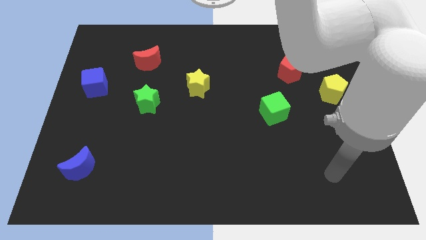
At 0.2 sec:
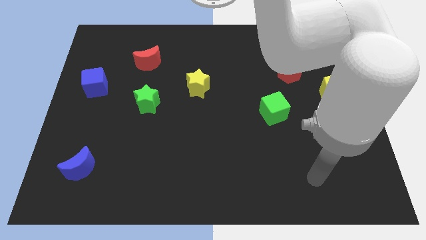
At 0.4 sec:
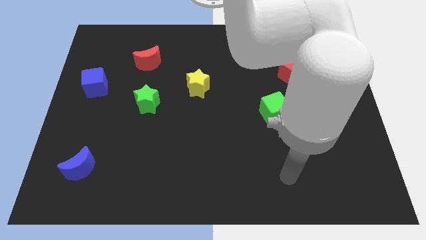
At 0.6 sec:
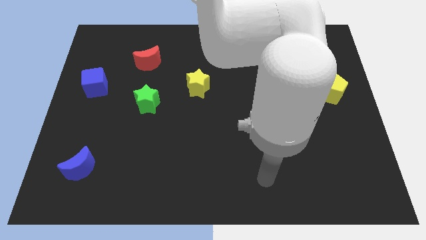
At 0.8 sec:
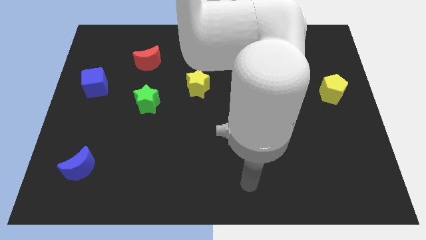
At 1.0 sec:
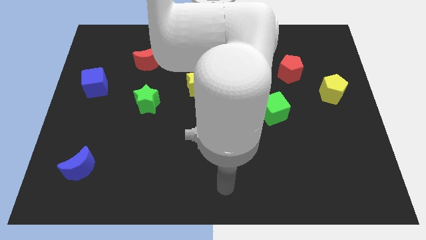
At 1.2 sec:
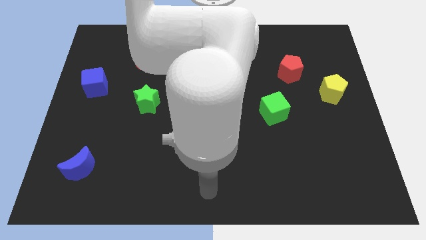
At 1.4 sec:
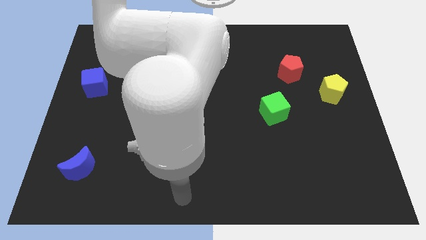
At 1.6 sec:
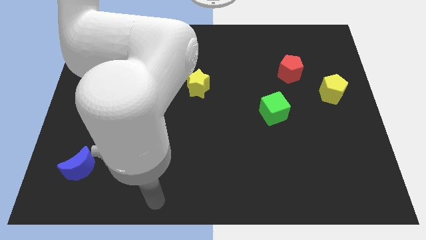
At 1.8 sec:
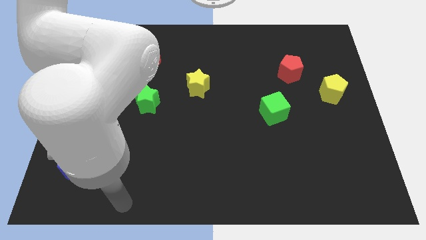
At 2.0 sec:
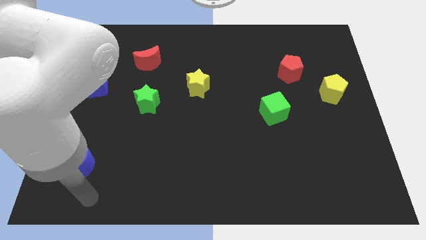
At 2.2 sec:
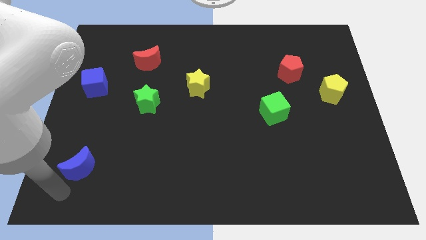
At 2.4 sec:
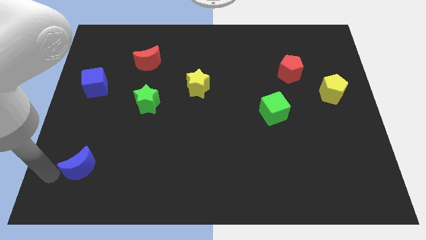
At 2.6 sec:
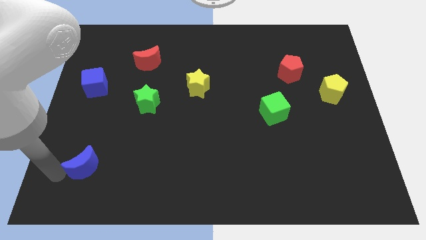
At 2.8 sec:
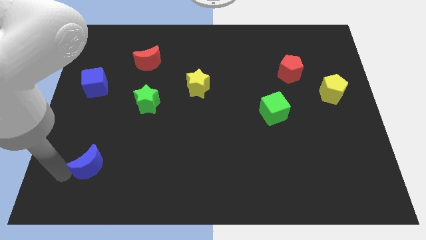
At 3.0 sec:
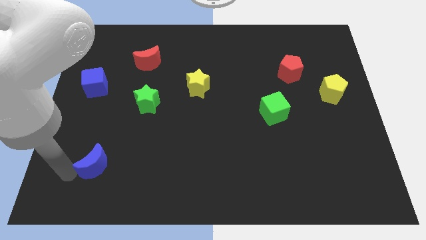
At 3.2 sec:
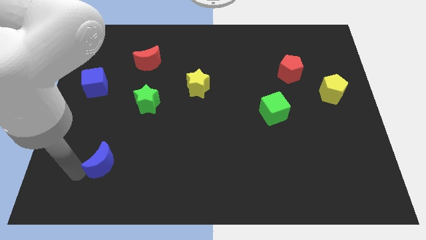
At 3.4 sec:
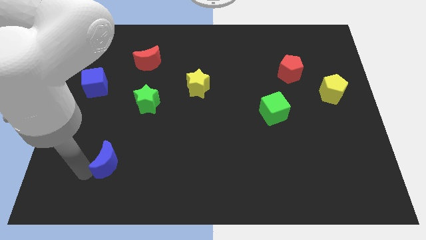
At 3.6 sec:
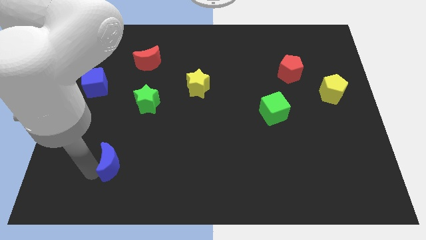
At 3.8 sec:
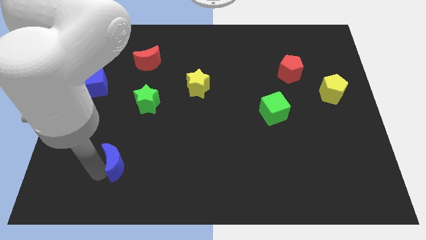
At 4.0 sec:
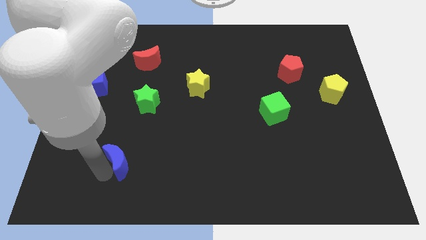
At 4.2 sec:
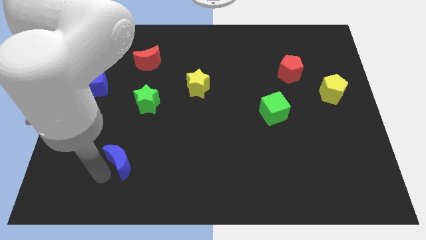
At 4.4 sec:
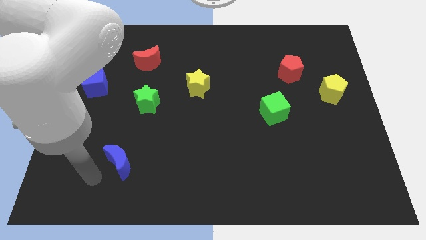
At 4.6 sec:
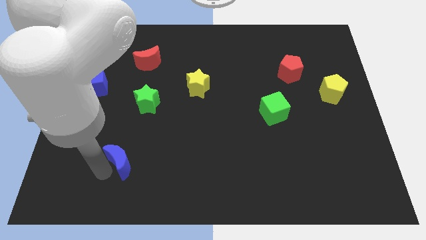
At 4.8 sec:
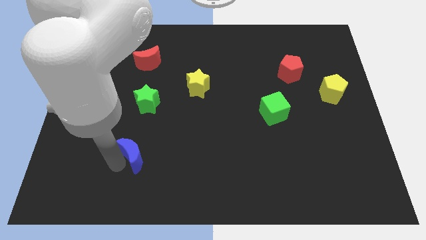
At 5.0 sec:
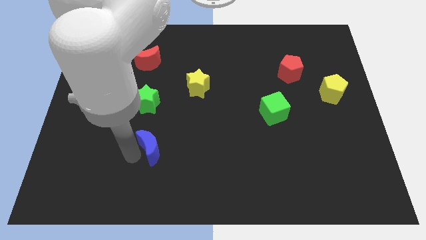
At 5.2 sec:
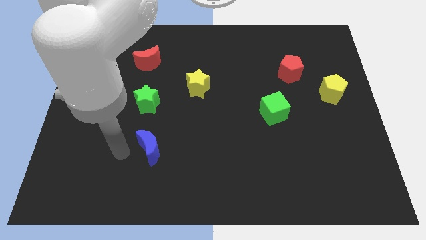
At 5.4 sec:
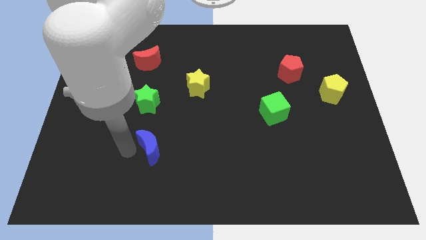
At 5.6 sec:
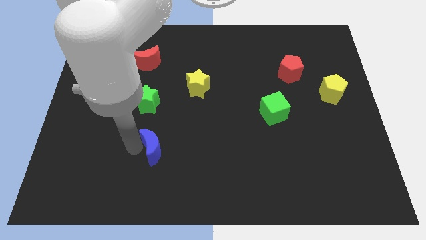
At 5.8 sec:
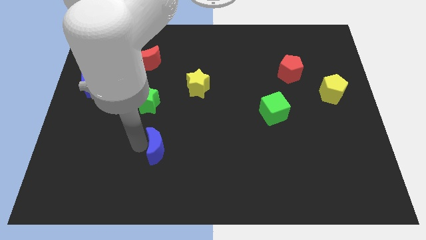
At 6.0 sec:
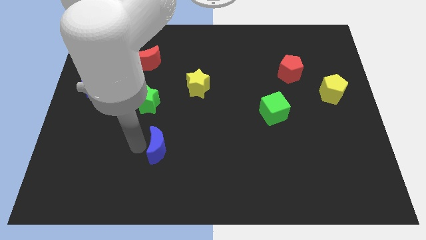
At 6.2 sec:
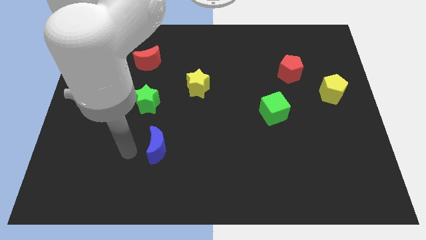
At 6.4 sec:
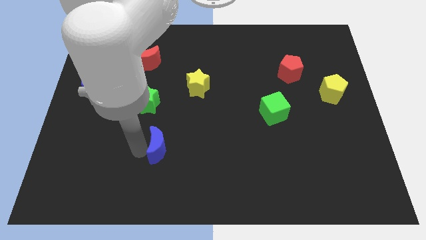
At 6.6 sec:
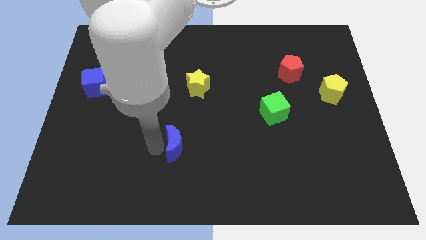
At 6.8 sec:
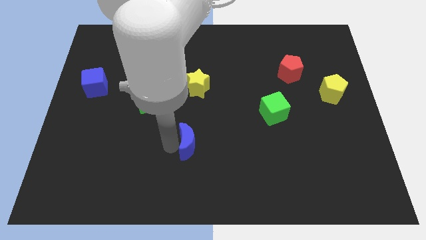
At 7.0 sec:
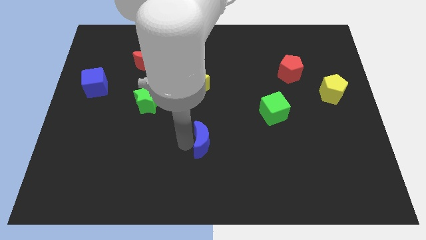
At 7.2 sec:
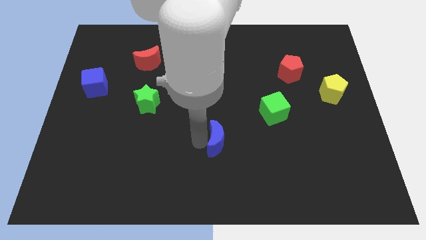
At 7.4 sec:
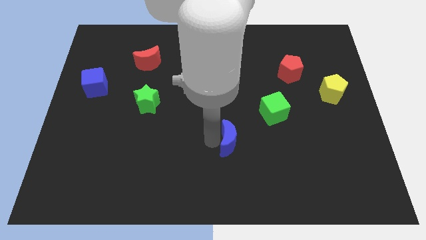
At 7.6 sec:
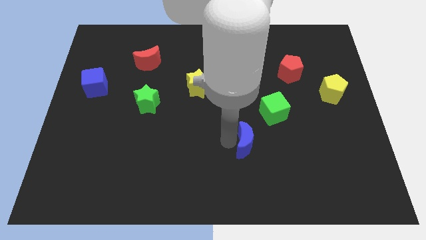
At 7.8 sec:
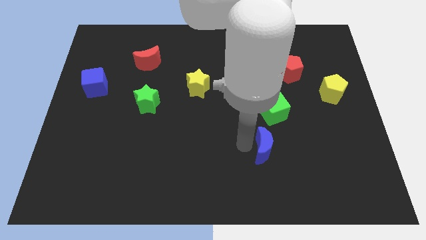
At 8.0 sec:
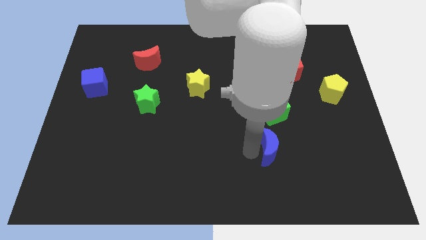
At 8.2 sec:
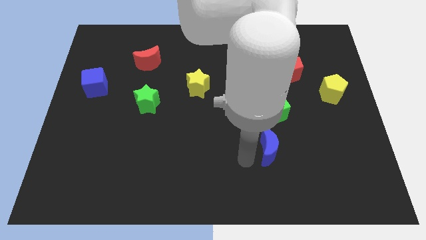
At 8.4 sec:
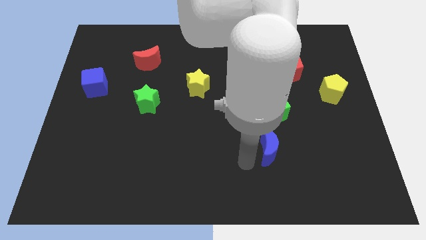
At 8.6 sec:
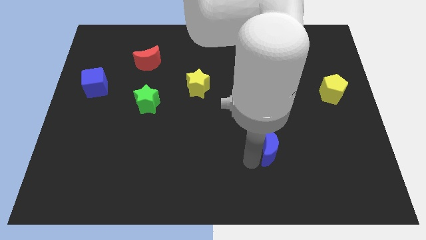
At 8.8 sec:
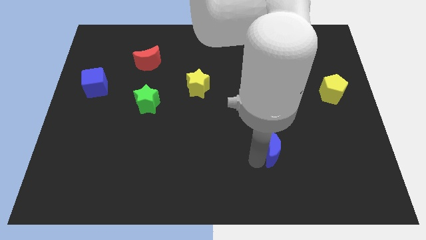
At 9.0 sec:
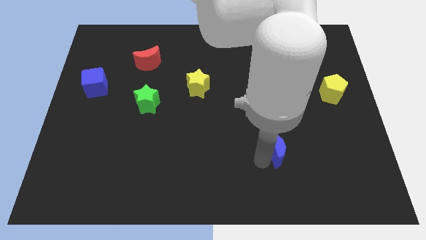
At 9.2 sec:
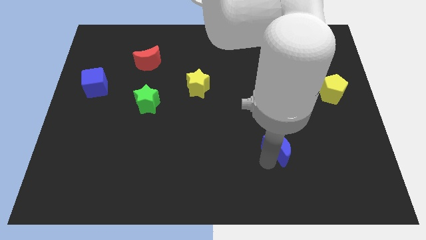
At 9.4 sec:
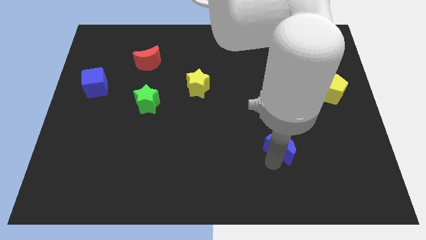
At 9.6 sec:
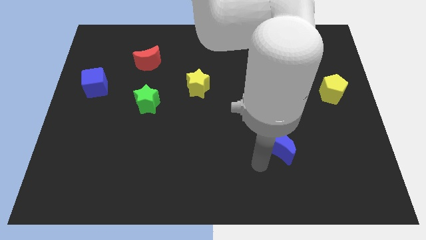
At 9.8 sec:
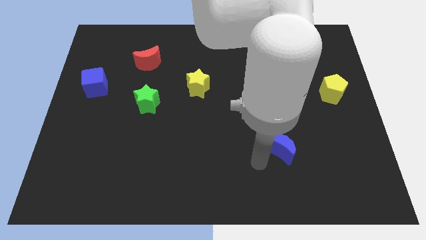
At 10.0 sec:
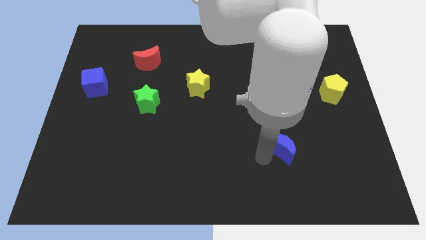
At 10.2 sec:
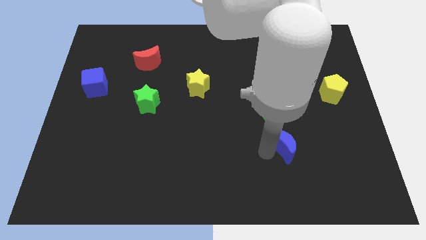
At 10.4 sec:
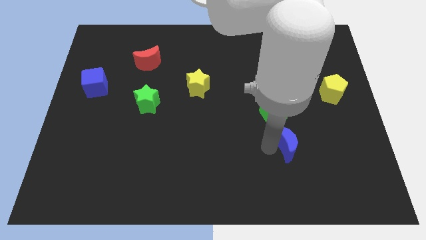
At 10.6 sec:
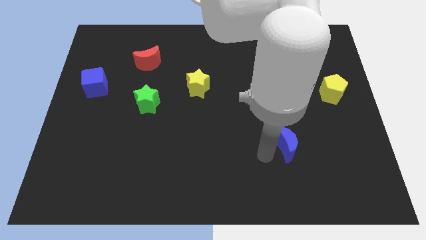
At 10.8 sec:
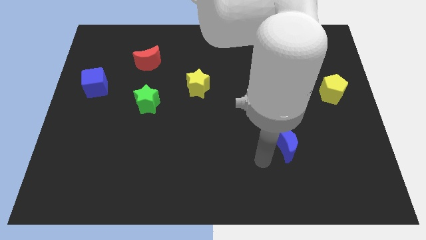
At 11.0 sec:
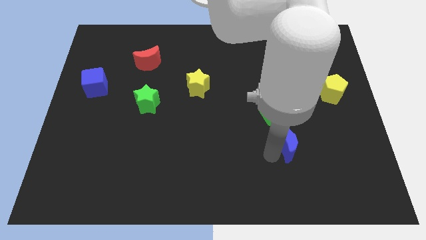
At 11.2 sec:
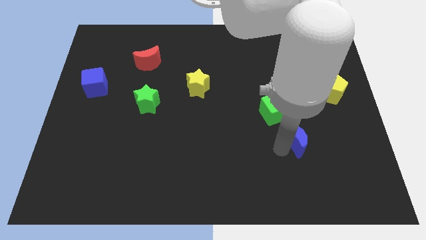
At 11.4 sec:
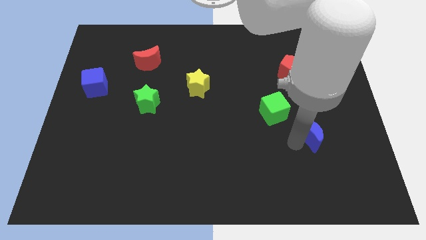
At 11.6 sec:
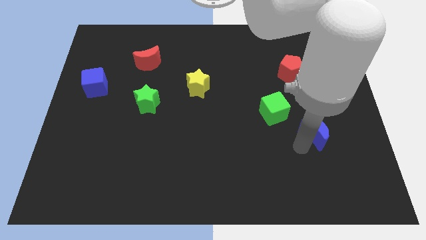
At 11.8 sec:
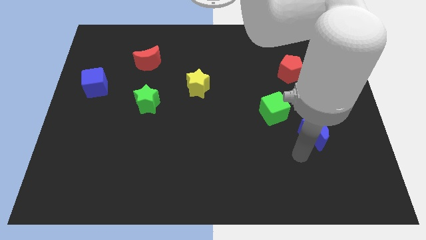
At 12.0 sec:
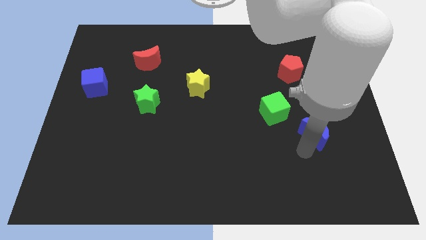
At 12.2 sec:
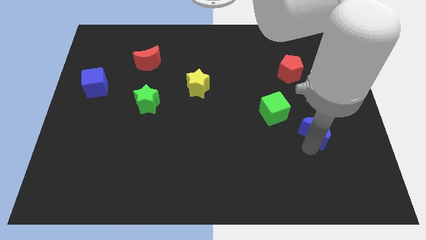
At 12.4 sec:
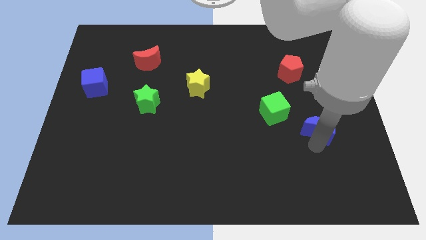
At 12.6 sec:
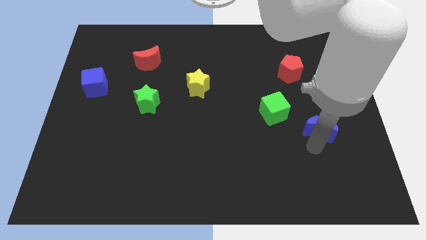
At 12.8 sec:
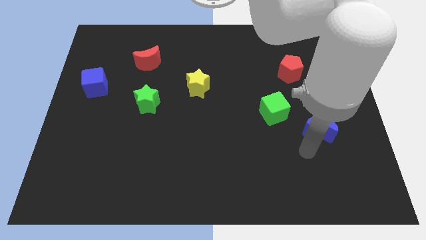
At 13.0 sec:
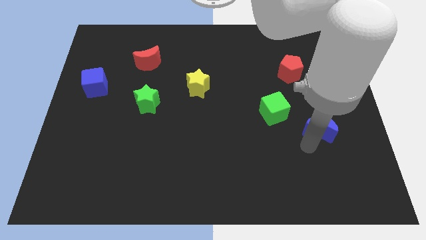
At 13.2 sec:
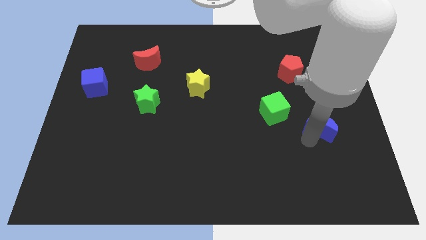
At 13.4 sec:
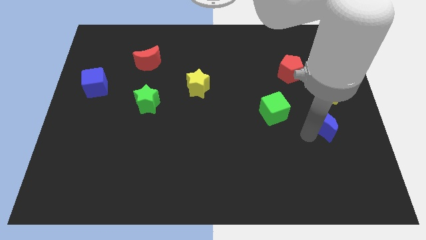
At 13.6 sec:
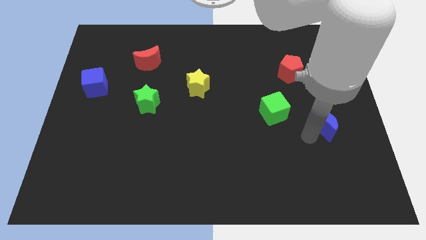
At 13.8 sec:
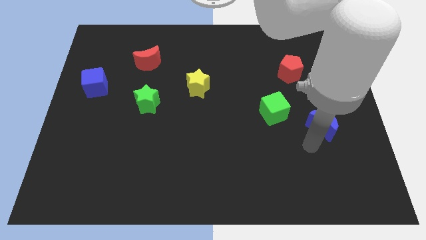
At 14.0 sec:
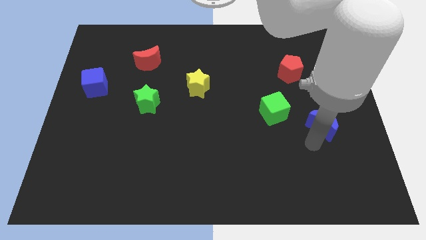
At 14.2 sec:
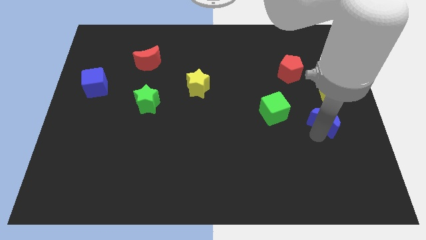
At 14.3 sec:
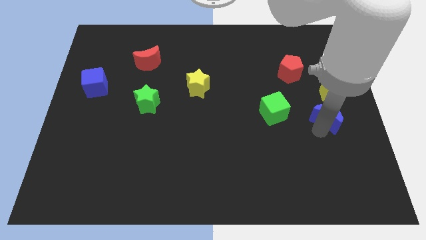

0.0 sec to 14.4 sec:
move the blue moon to the right side of the board
